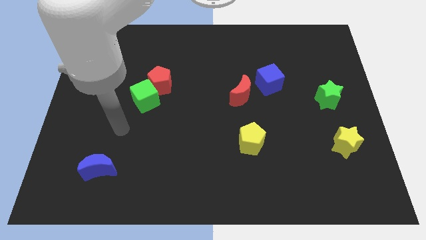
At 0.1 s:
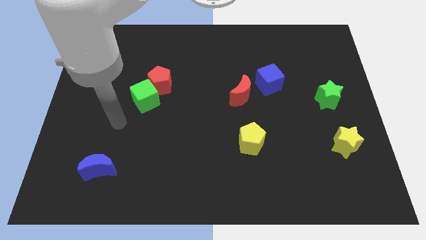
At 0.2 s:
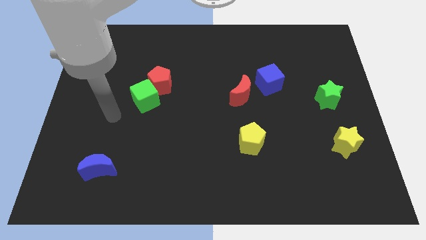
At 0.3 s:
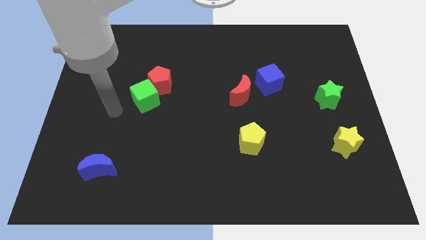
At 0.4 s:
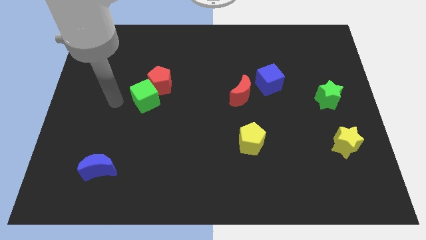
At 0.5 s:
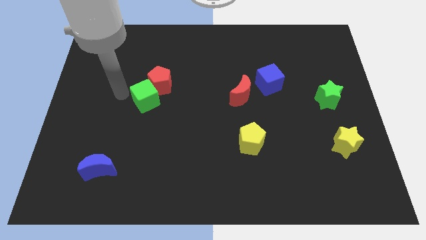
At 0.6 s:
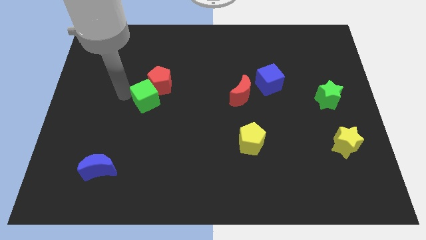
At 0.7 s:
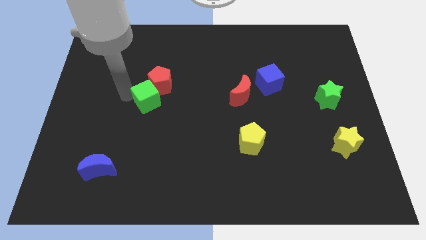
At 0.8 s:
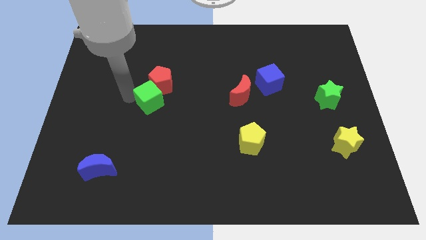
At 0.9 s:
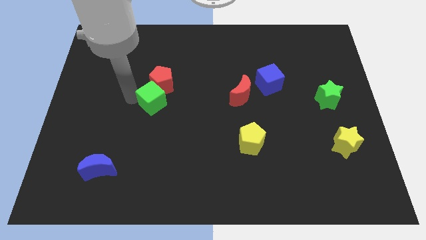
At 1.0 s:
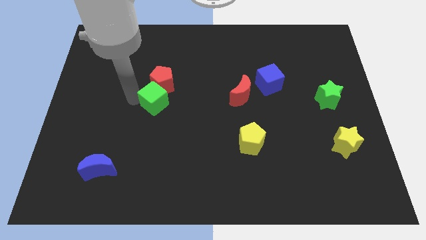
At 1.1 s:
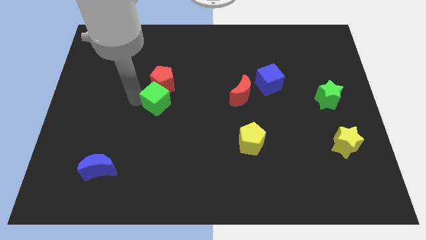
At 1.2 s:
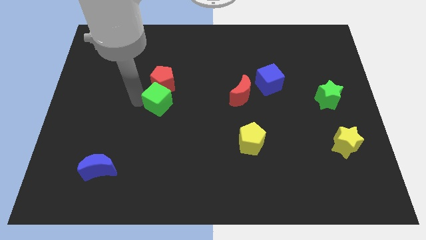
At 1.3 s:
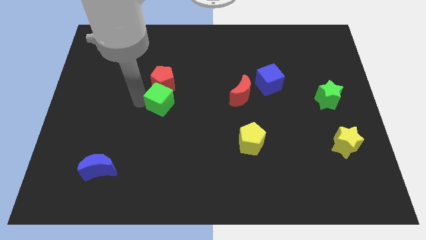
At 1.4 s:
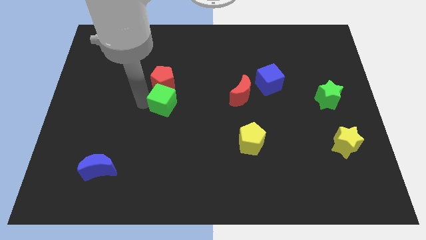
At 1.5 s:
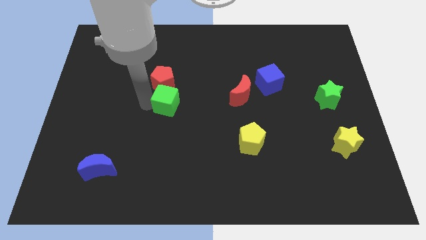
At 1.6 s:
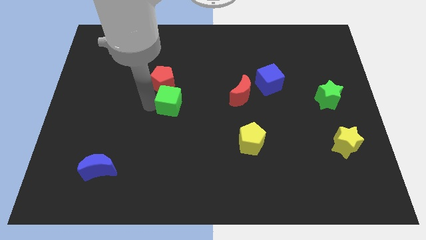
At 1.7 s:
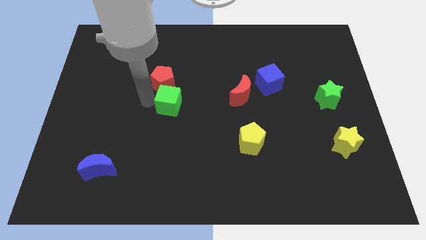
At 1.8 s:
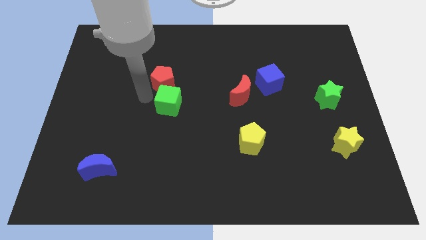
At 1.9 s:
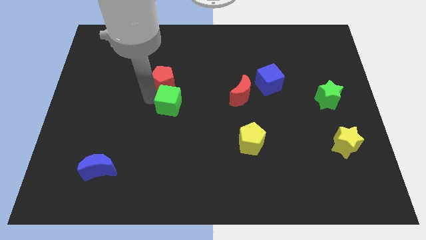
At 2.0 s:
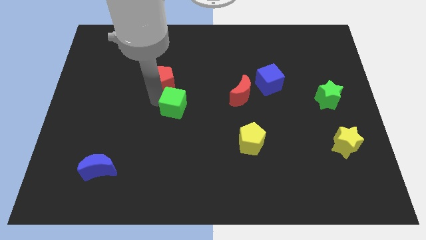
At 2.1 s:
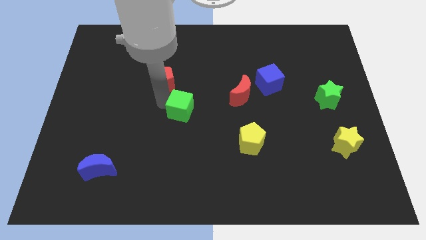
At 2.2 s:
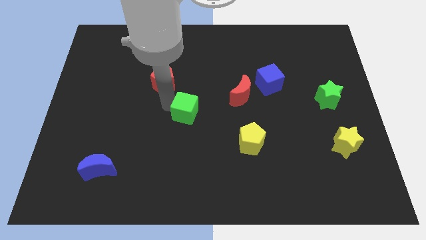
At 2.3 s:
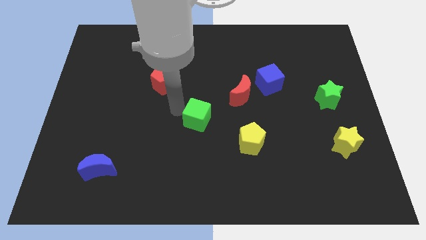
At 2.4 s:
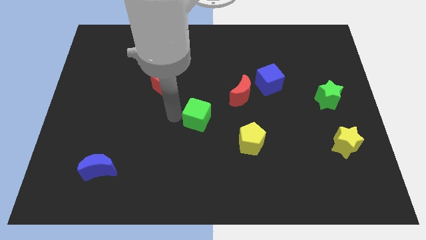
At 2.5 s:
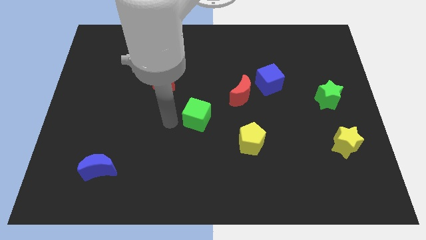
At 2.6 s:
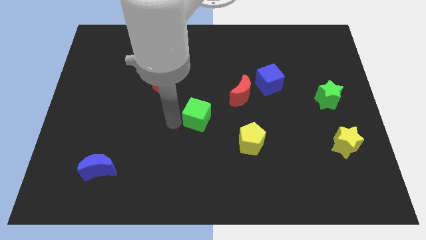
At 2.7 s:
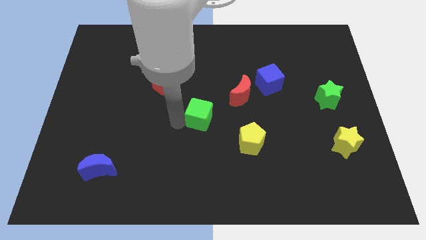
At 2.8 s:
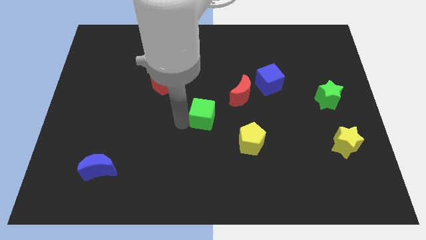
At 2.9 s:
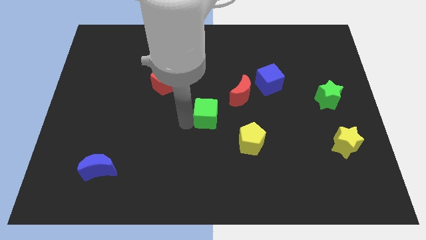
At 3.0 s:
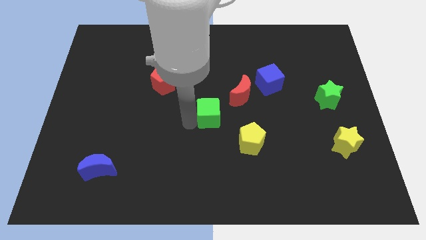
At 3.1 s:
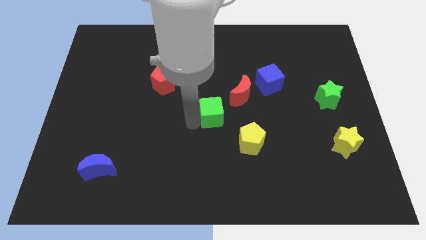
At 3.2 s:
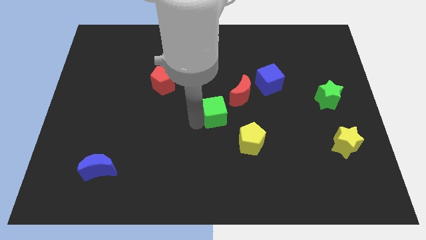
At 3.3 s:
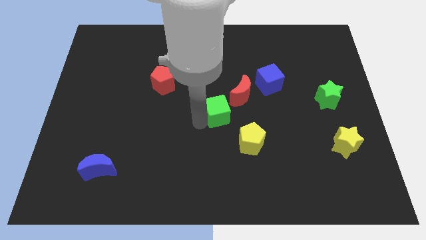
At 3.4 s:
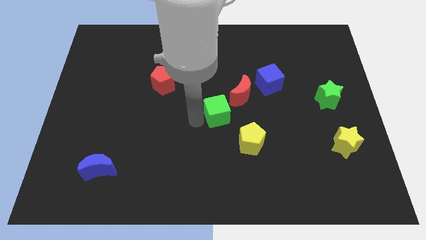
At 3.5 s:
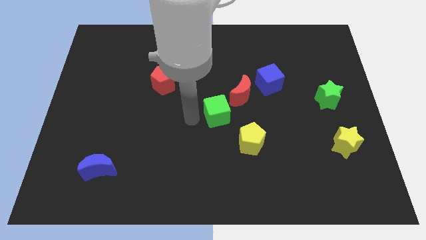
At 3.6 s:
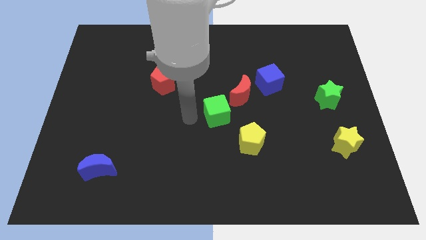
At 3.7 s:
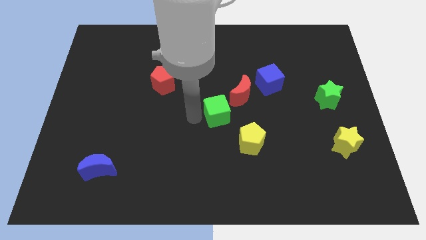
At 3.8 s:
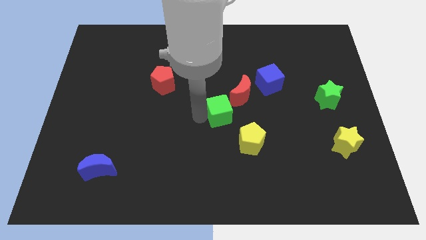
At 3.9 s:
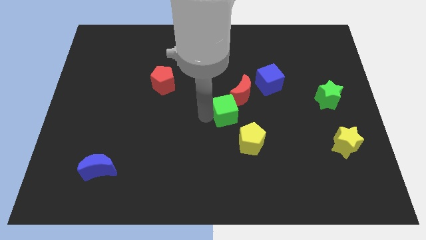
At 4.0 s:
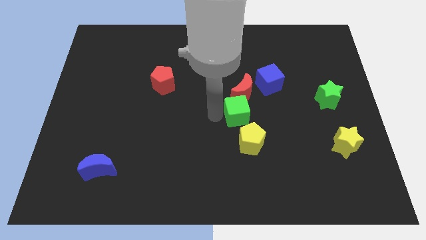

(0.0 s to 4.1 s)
move the green cube right

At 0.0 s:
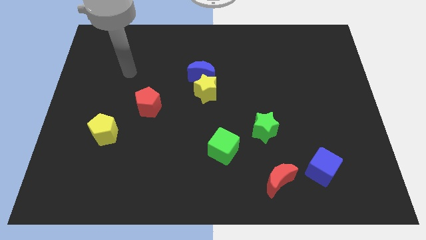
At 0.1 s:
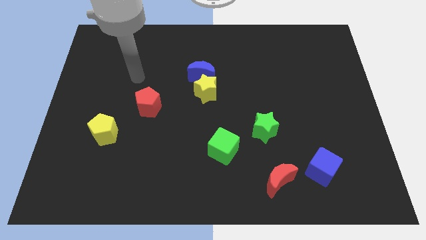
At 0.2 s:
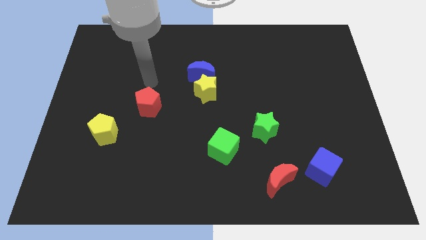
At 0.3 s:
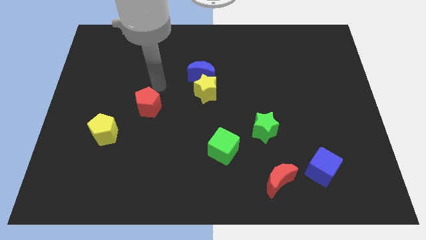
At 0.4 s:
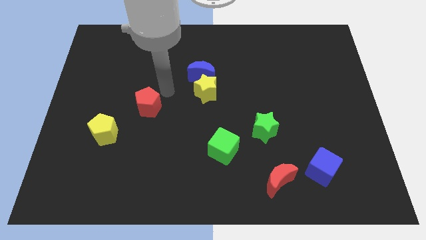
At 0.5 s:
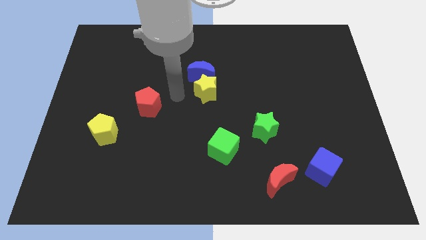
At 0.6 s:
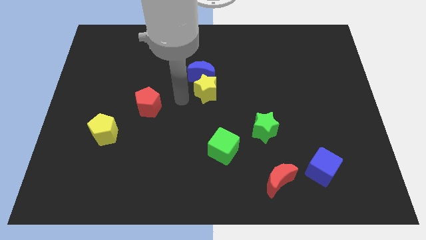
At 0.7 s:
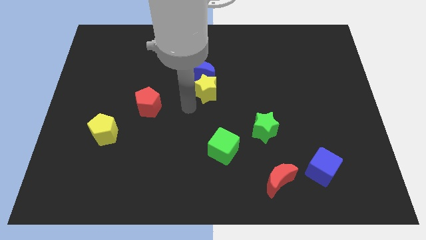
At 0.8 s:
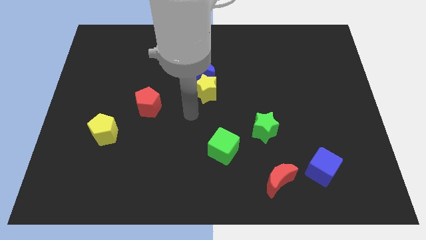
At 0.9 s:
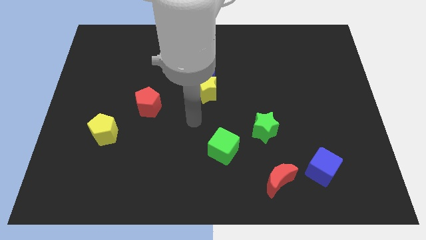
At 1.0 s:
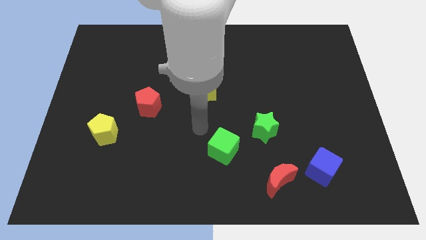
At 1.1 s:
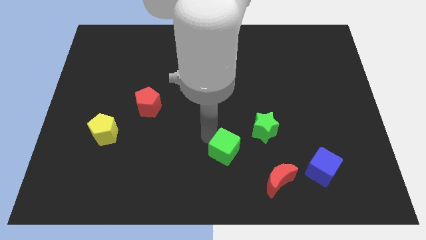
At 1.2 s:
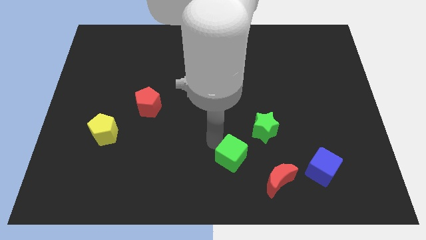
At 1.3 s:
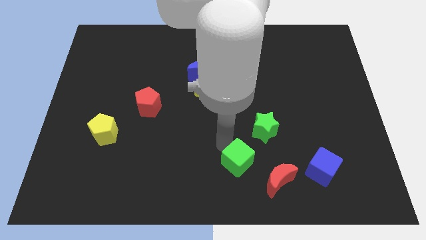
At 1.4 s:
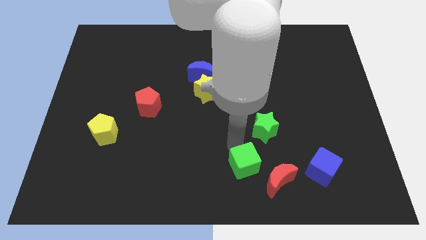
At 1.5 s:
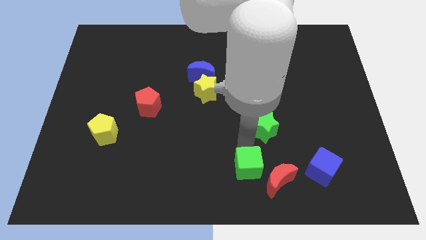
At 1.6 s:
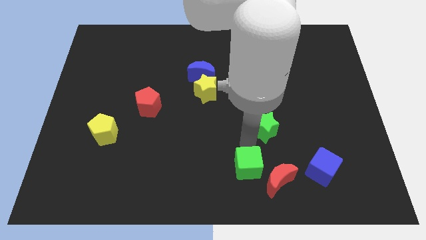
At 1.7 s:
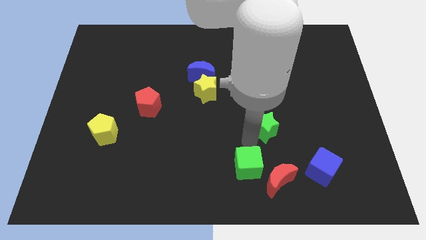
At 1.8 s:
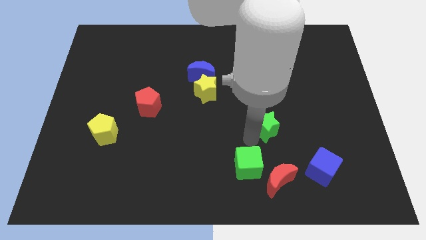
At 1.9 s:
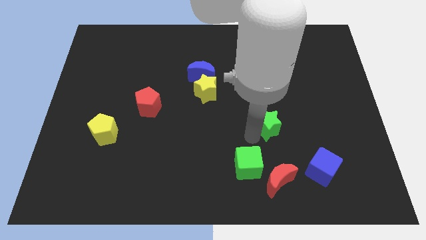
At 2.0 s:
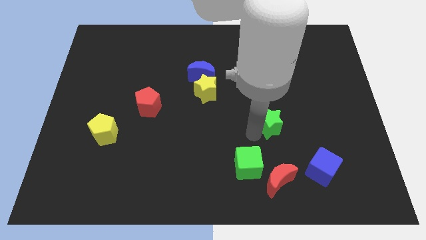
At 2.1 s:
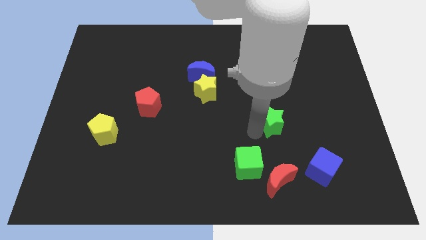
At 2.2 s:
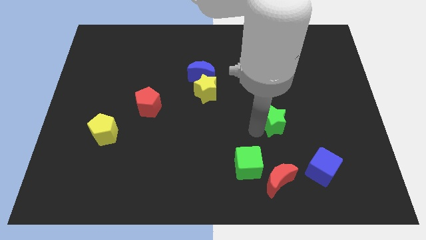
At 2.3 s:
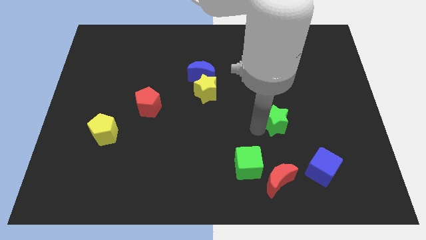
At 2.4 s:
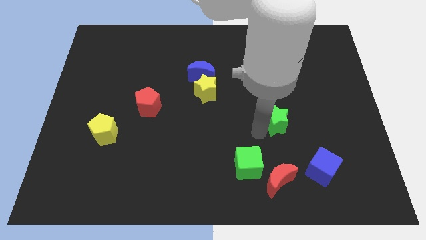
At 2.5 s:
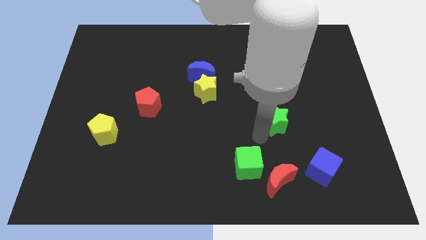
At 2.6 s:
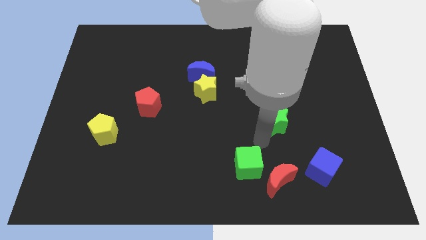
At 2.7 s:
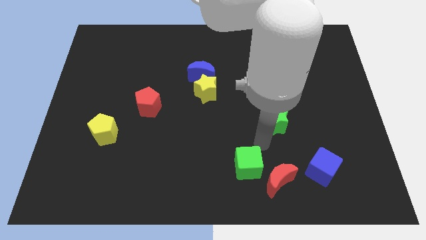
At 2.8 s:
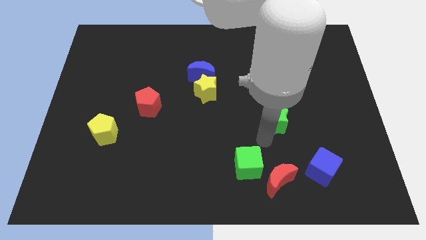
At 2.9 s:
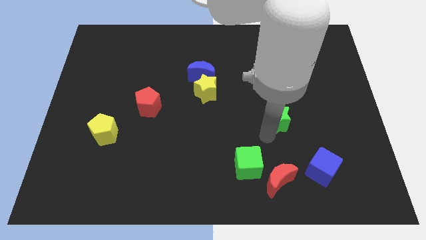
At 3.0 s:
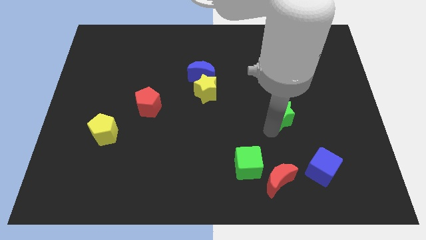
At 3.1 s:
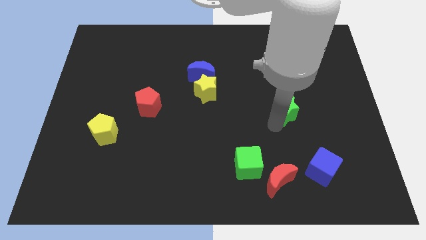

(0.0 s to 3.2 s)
move the green star a little bit diagonally upwards and to the right

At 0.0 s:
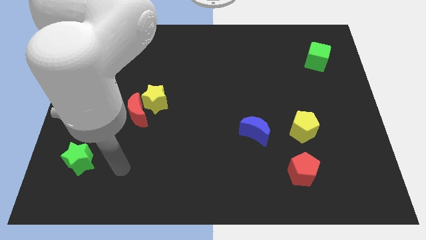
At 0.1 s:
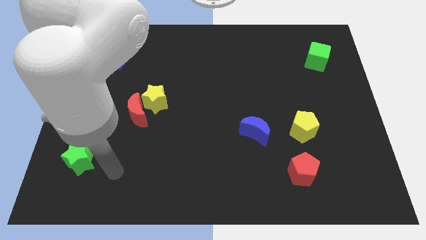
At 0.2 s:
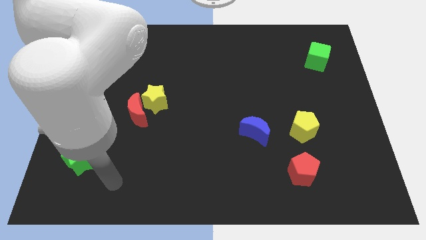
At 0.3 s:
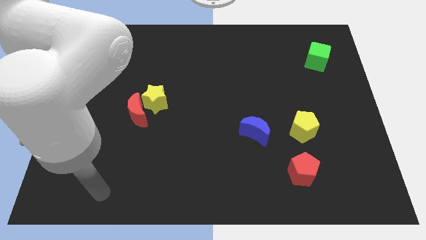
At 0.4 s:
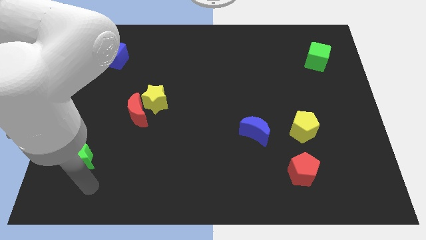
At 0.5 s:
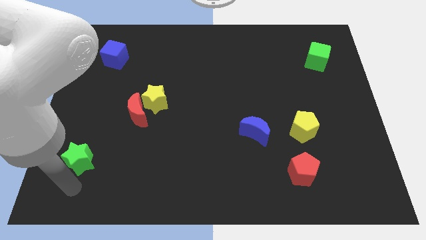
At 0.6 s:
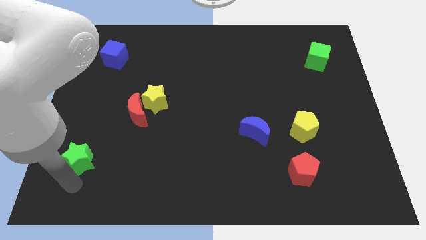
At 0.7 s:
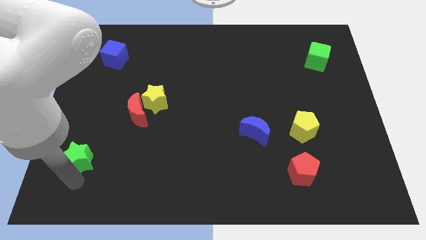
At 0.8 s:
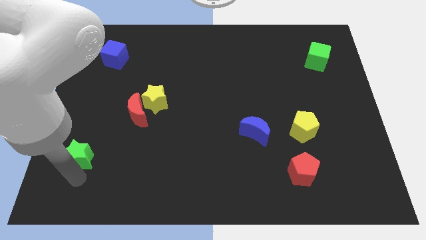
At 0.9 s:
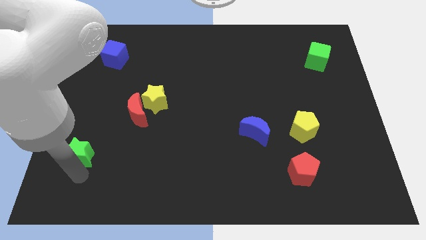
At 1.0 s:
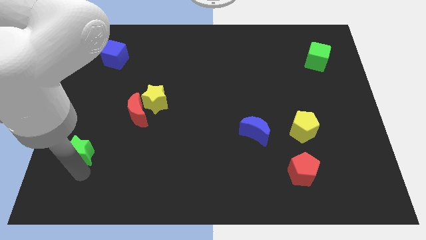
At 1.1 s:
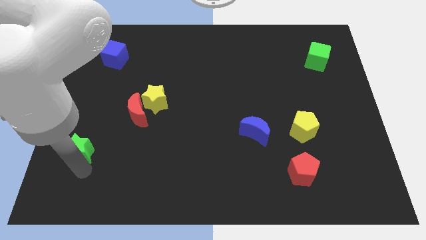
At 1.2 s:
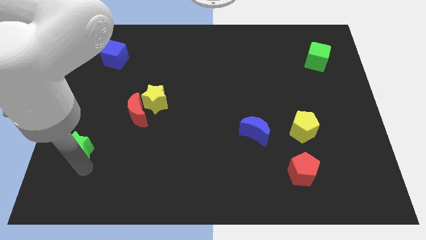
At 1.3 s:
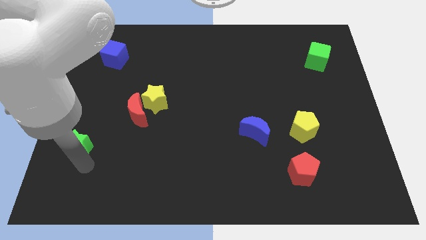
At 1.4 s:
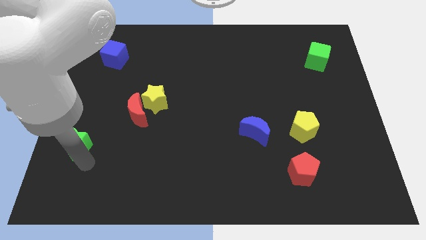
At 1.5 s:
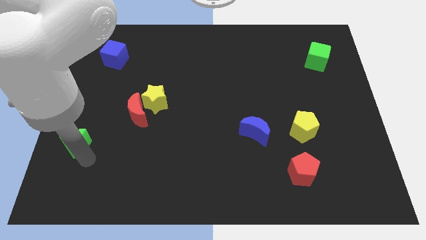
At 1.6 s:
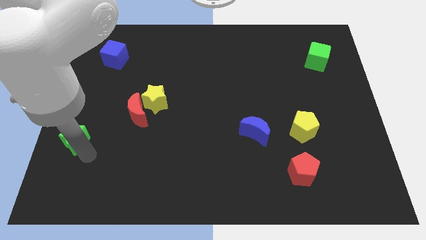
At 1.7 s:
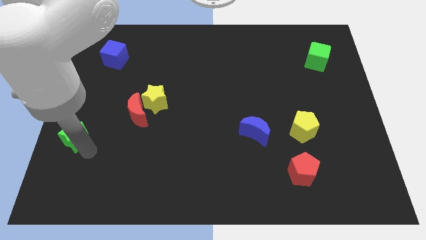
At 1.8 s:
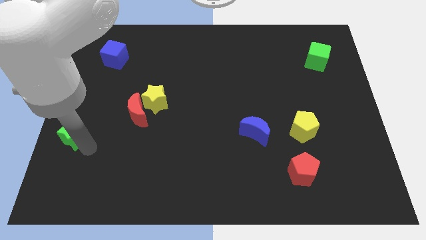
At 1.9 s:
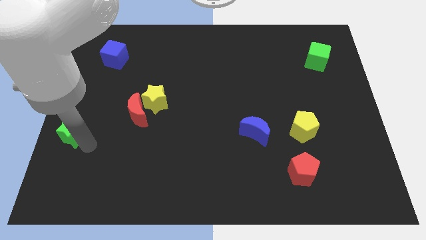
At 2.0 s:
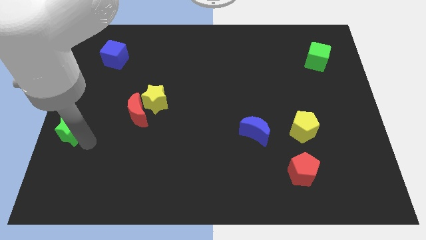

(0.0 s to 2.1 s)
slide the green star upwards slightly
